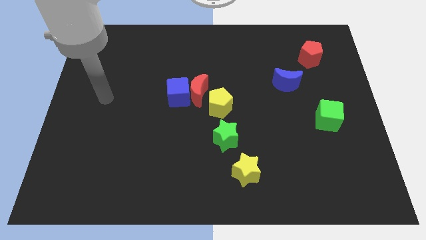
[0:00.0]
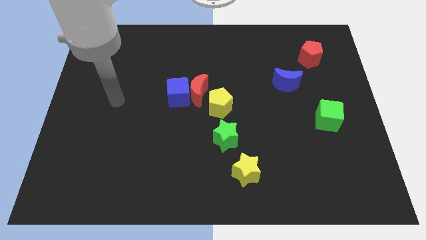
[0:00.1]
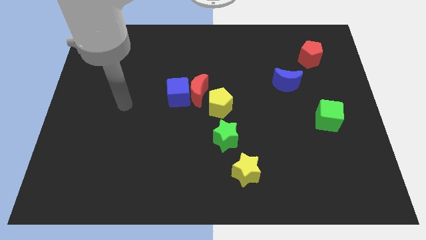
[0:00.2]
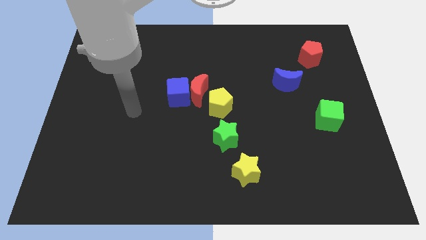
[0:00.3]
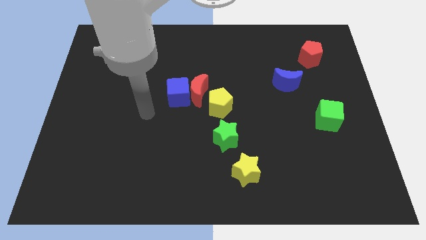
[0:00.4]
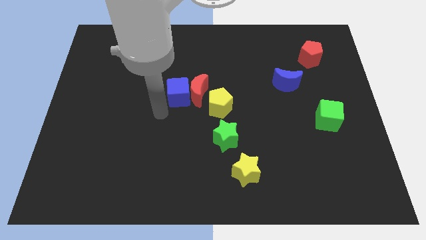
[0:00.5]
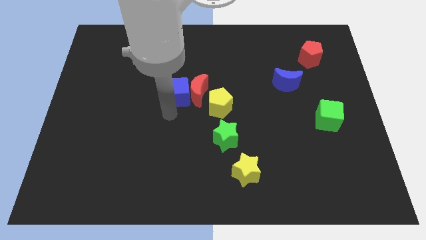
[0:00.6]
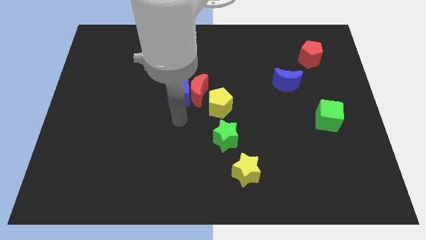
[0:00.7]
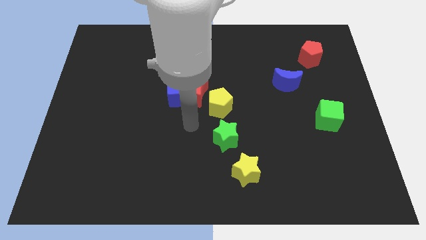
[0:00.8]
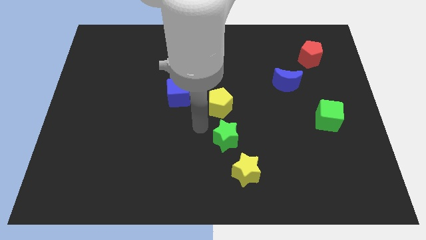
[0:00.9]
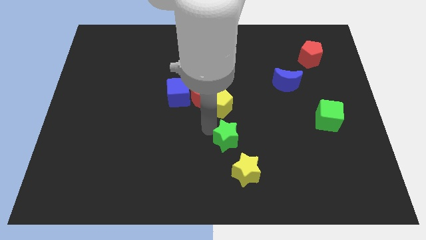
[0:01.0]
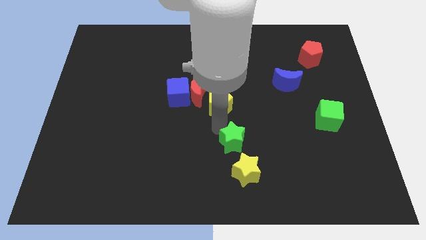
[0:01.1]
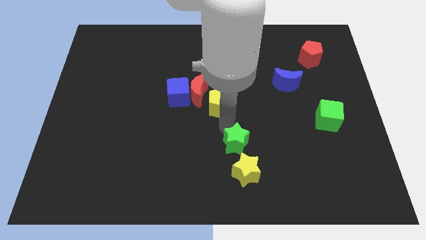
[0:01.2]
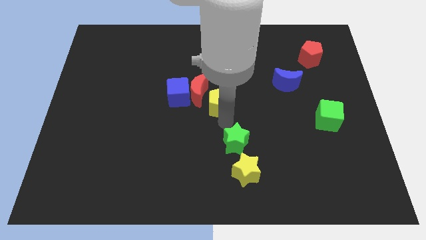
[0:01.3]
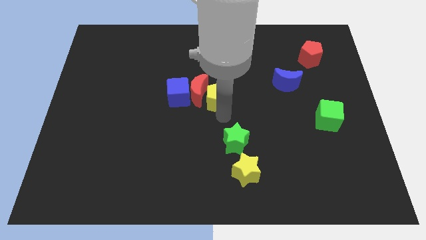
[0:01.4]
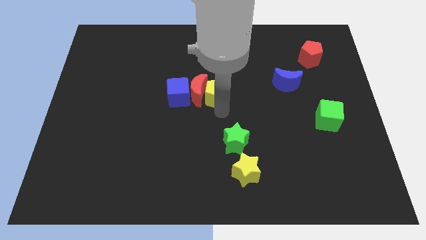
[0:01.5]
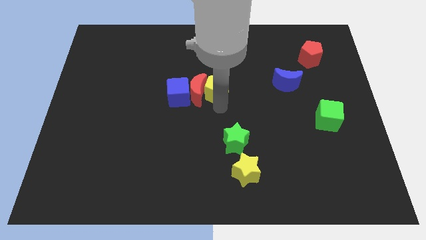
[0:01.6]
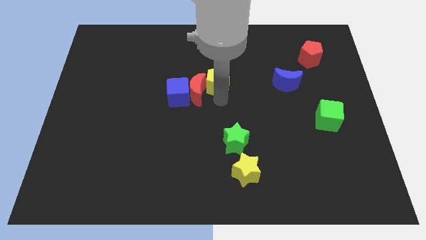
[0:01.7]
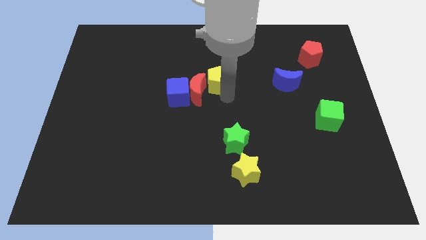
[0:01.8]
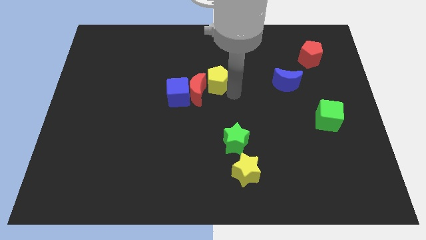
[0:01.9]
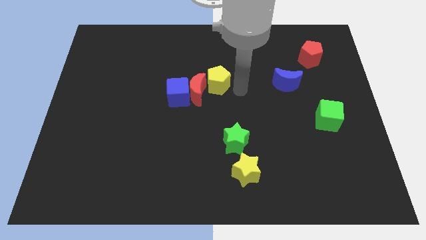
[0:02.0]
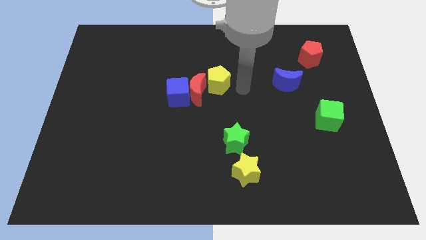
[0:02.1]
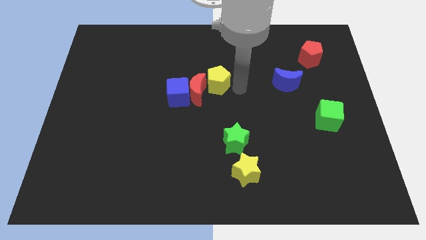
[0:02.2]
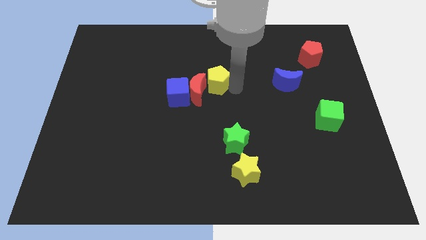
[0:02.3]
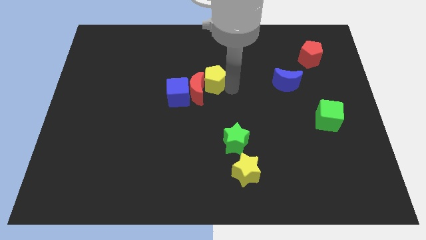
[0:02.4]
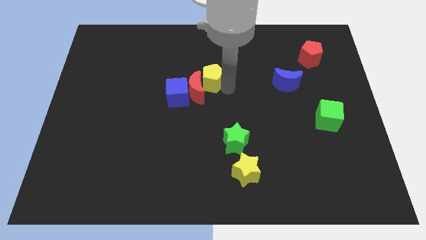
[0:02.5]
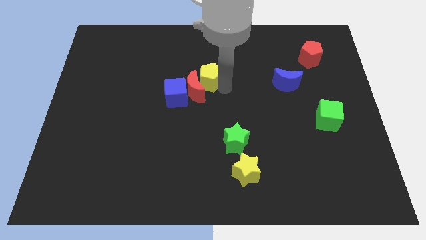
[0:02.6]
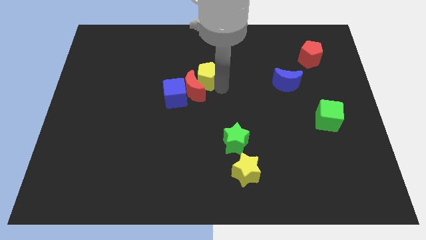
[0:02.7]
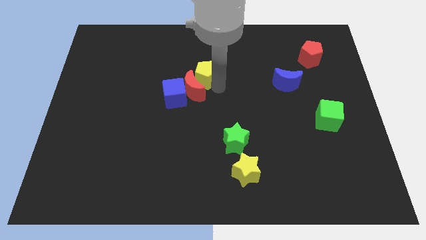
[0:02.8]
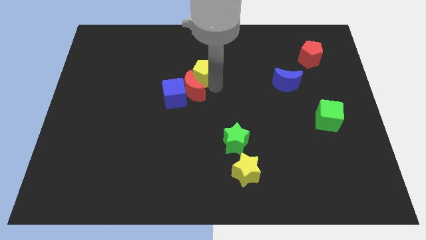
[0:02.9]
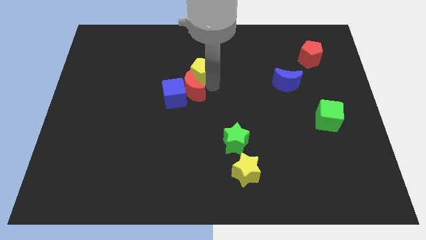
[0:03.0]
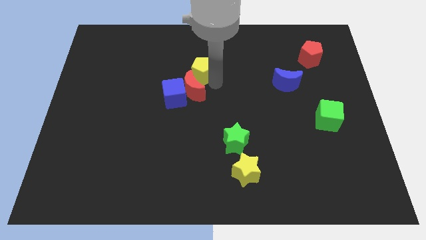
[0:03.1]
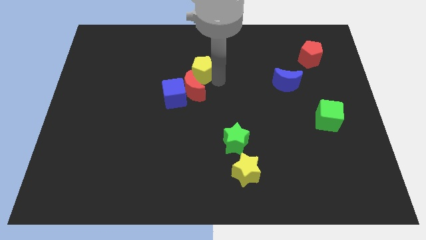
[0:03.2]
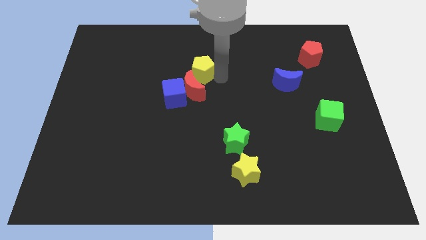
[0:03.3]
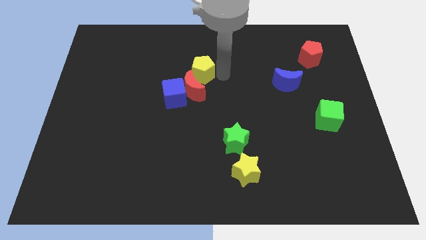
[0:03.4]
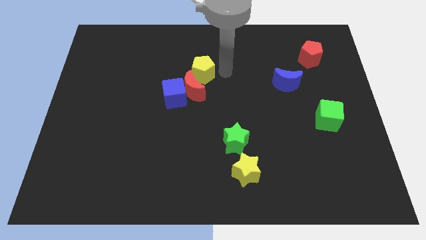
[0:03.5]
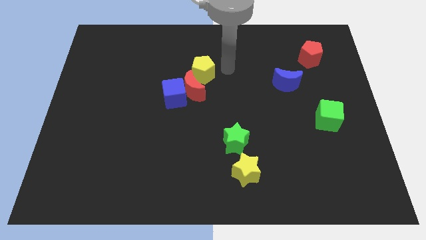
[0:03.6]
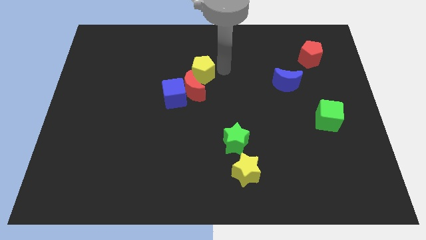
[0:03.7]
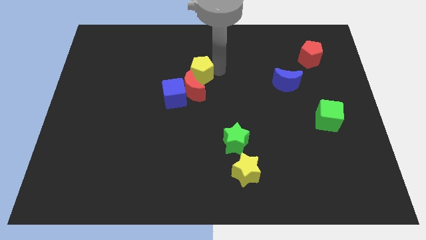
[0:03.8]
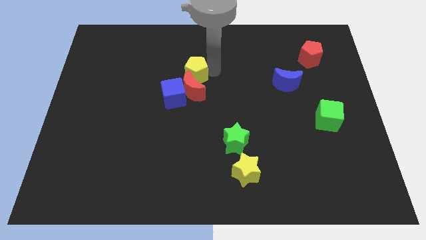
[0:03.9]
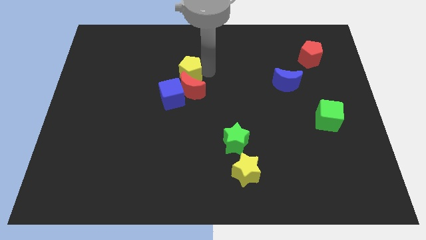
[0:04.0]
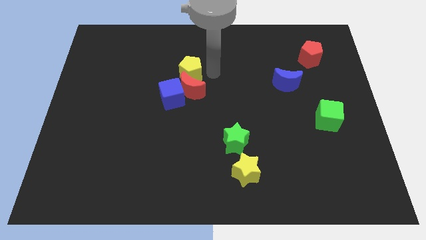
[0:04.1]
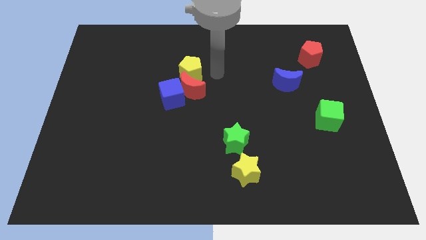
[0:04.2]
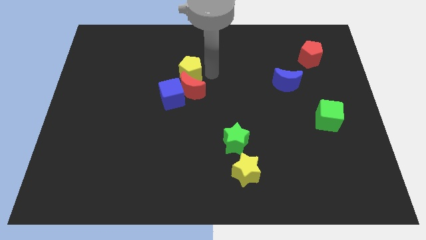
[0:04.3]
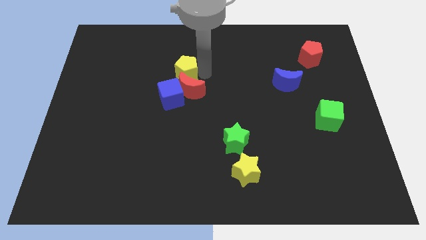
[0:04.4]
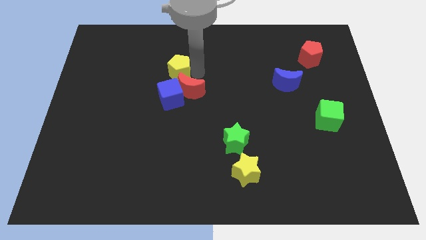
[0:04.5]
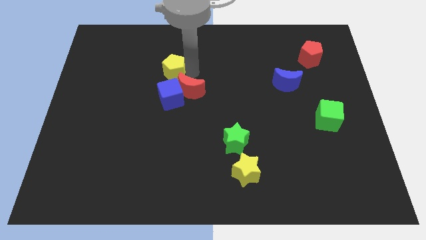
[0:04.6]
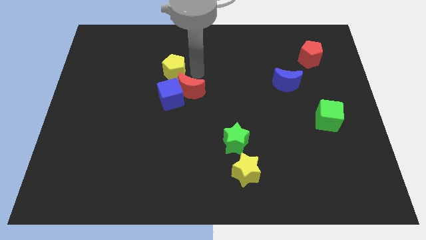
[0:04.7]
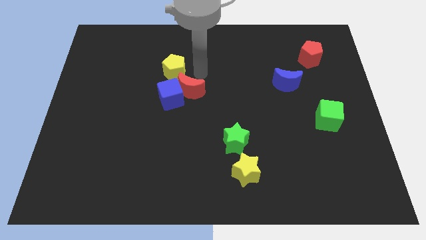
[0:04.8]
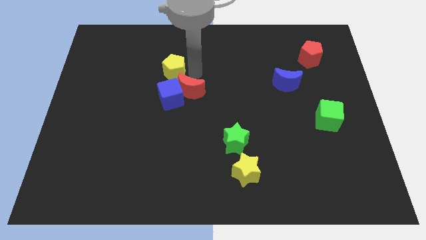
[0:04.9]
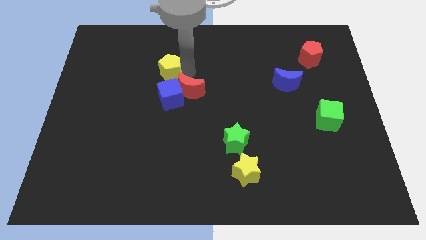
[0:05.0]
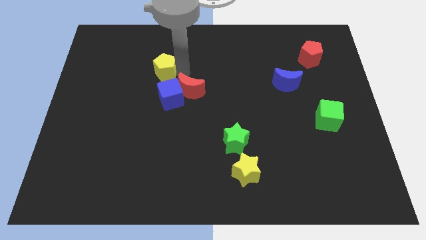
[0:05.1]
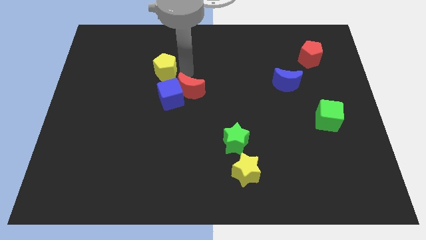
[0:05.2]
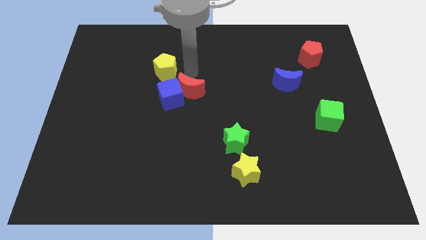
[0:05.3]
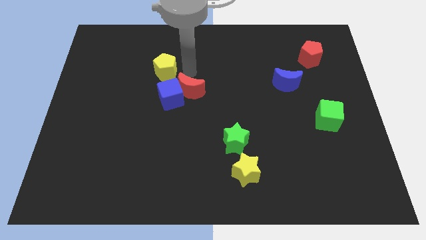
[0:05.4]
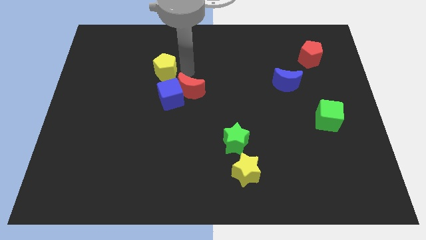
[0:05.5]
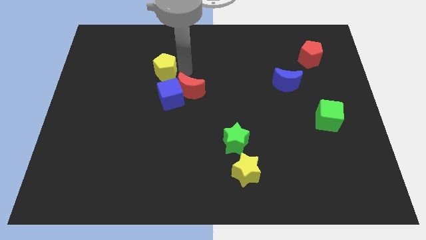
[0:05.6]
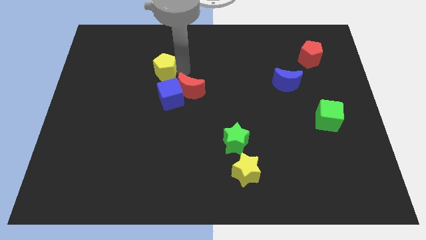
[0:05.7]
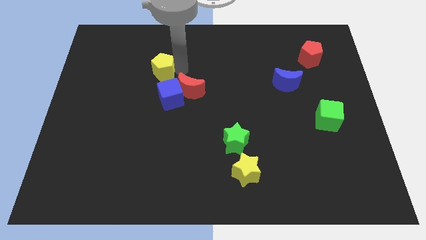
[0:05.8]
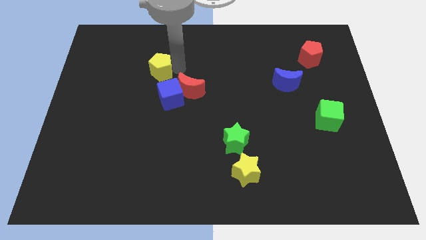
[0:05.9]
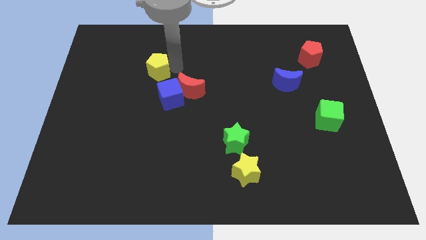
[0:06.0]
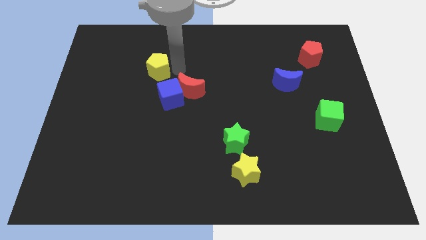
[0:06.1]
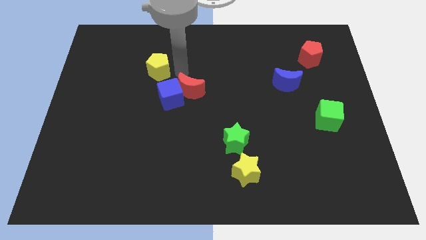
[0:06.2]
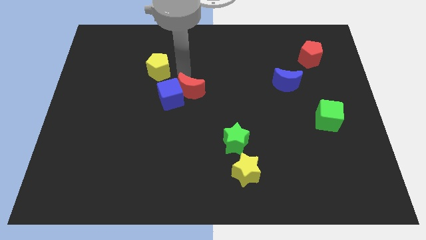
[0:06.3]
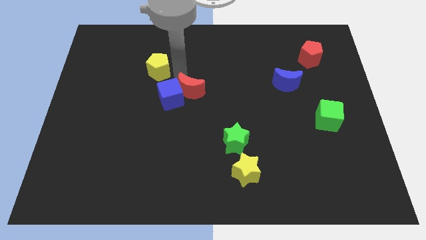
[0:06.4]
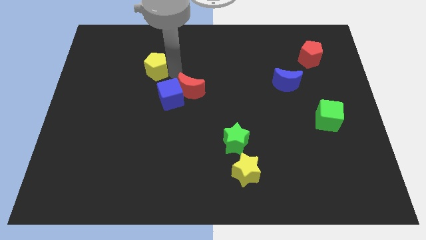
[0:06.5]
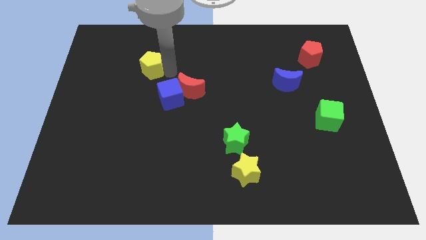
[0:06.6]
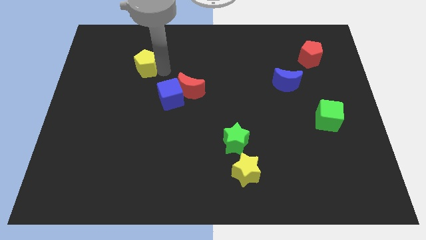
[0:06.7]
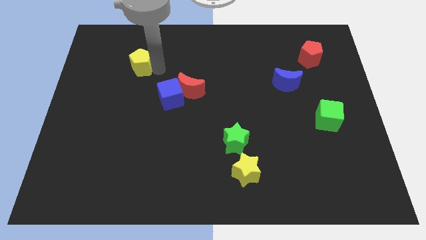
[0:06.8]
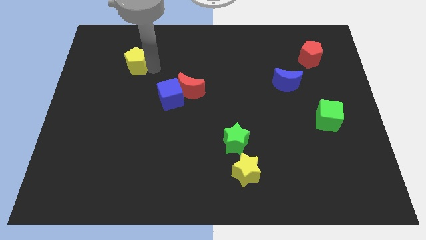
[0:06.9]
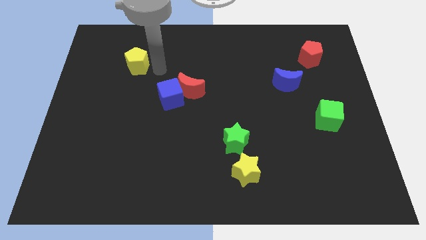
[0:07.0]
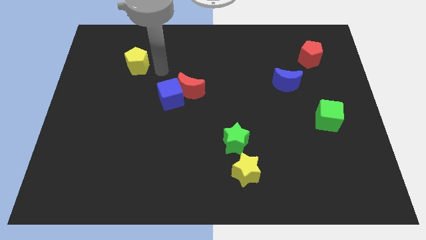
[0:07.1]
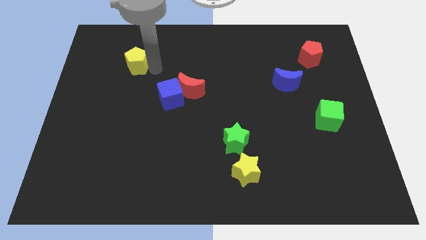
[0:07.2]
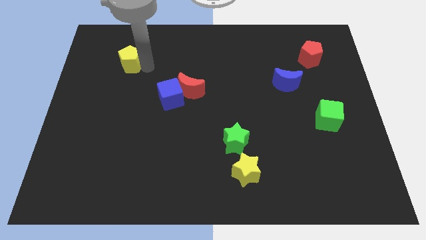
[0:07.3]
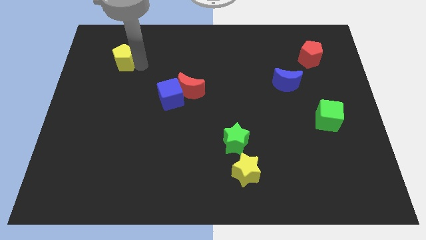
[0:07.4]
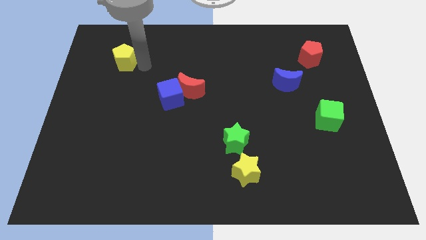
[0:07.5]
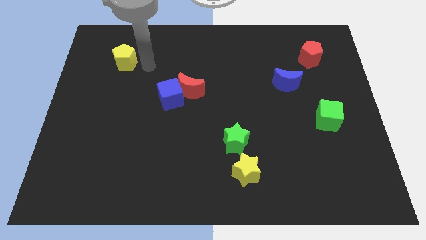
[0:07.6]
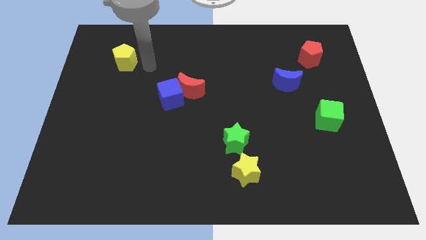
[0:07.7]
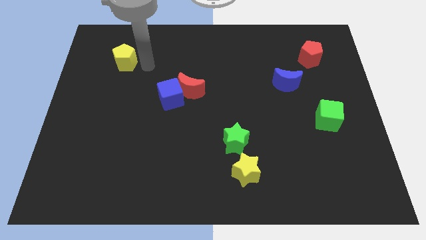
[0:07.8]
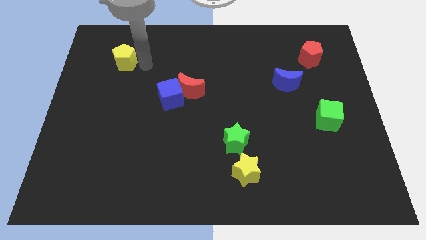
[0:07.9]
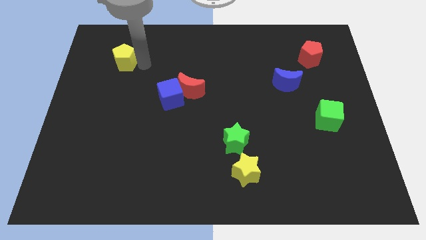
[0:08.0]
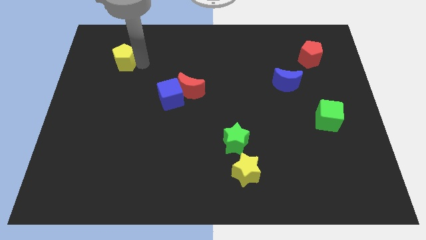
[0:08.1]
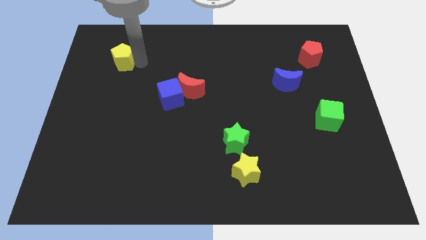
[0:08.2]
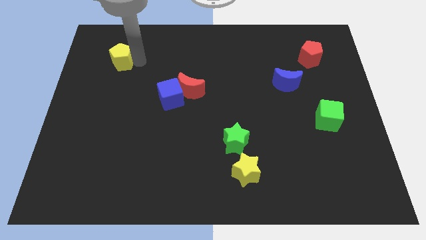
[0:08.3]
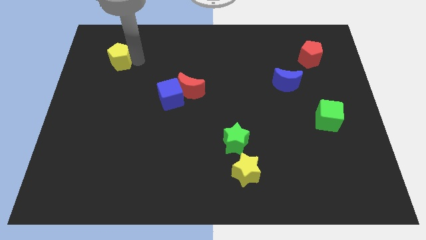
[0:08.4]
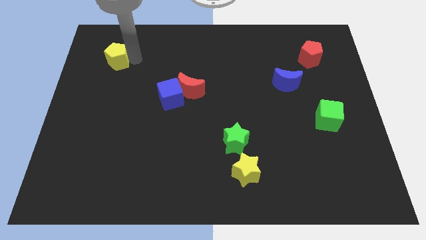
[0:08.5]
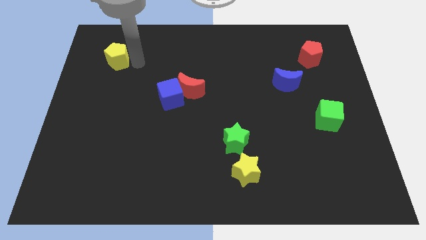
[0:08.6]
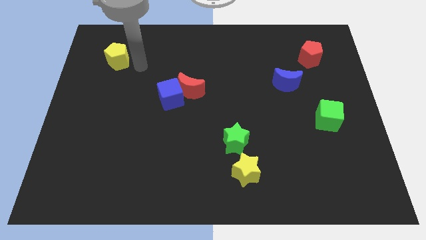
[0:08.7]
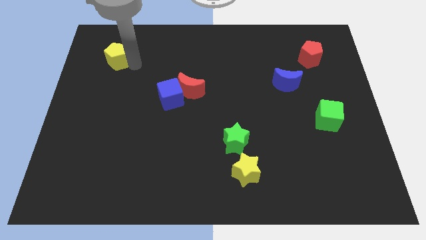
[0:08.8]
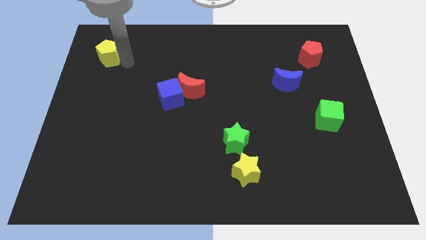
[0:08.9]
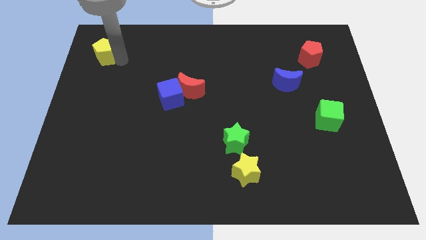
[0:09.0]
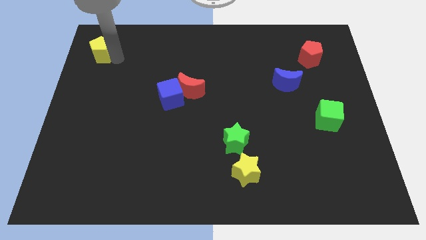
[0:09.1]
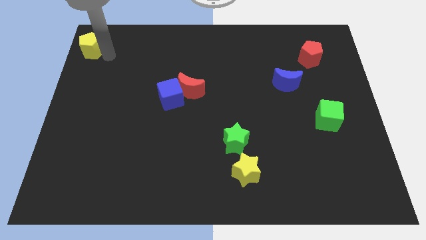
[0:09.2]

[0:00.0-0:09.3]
slide the yellow pentagon to the top left corner
